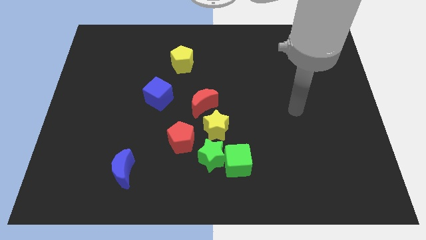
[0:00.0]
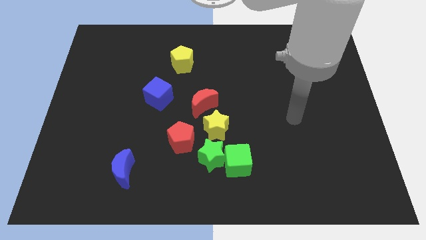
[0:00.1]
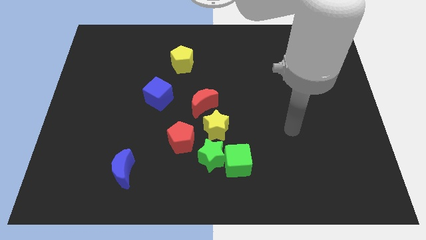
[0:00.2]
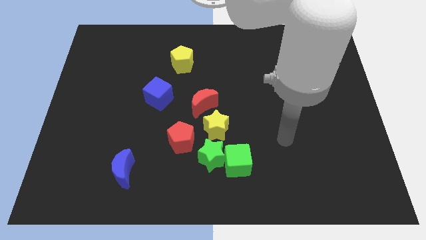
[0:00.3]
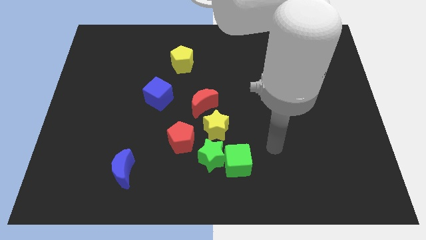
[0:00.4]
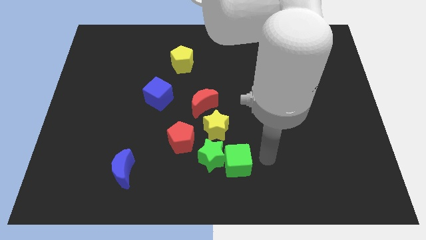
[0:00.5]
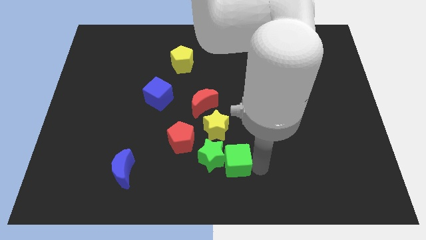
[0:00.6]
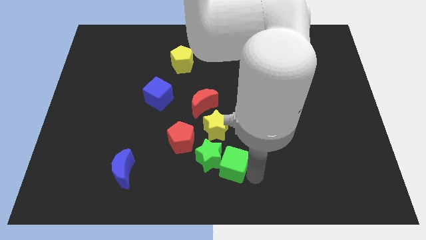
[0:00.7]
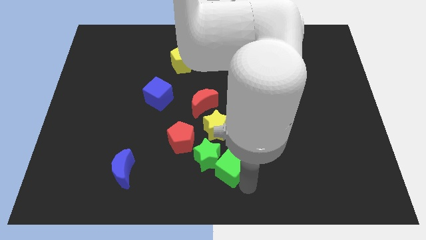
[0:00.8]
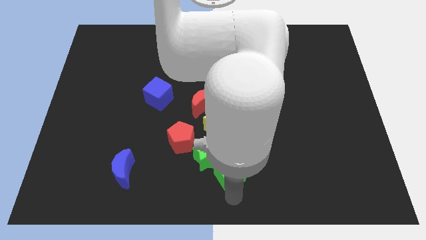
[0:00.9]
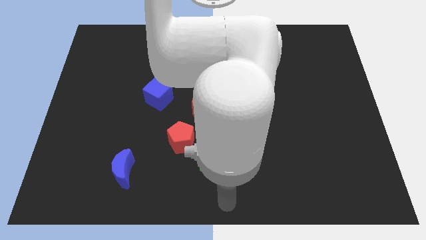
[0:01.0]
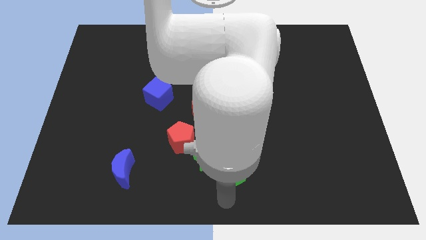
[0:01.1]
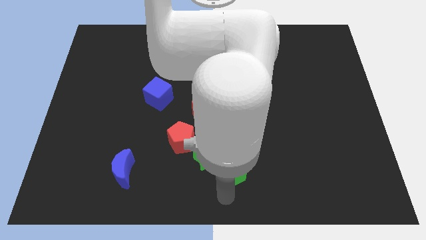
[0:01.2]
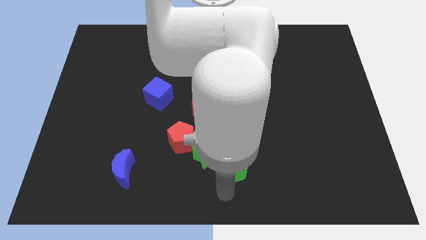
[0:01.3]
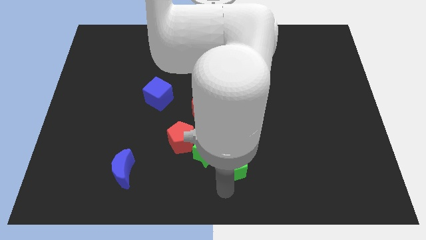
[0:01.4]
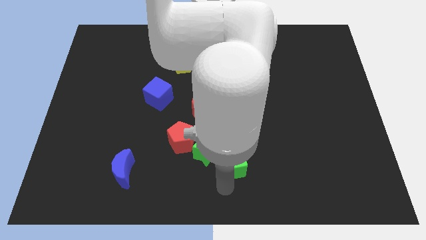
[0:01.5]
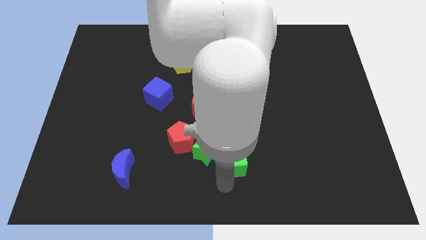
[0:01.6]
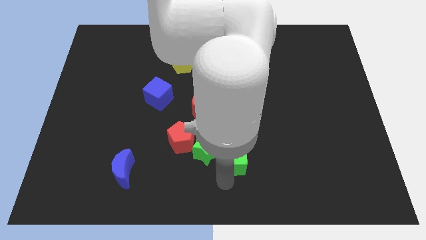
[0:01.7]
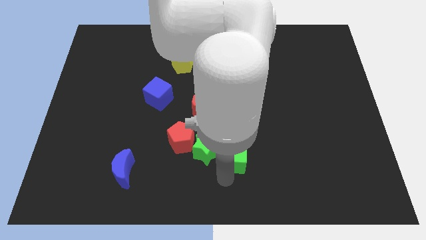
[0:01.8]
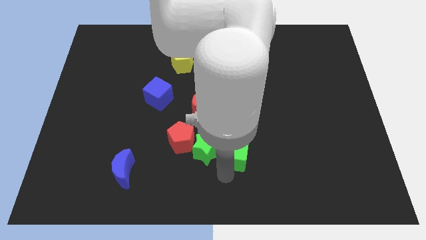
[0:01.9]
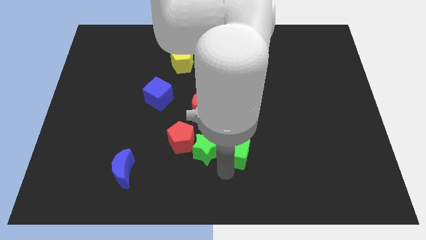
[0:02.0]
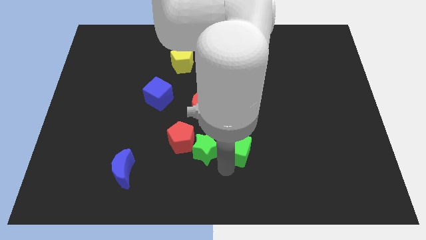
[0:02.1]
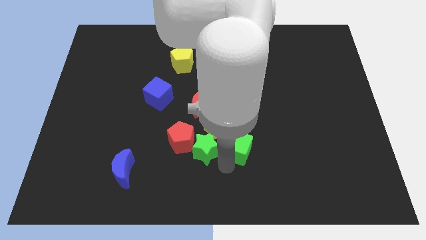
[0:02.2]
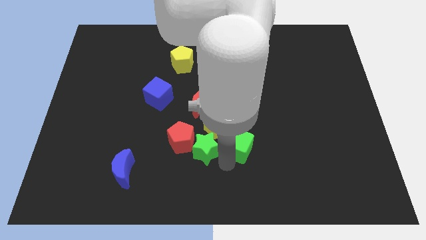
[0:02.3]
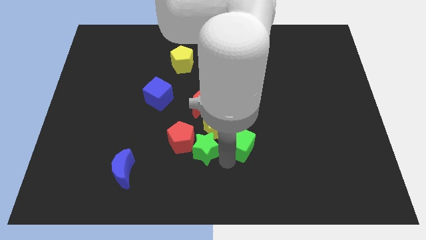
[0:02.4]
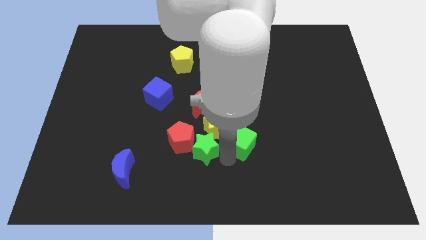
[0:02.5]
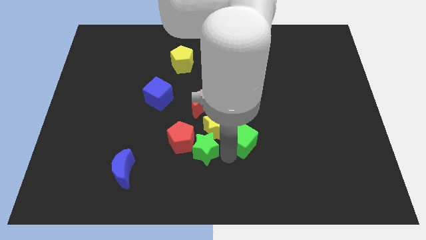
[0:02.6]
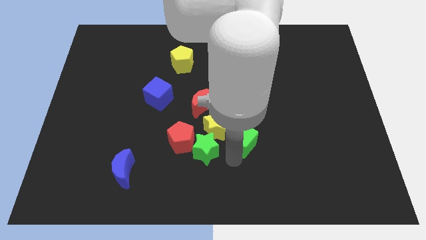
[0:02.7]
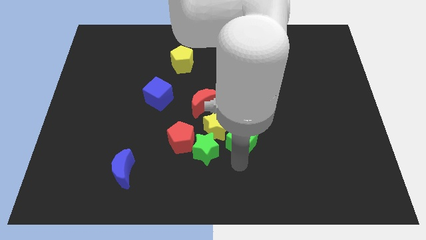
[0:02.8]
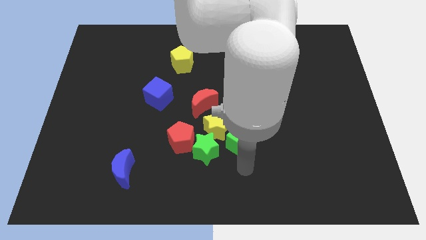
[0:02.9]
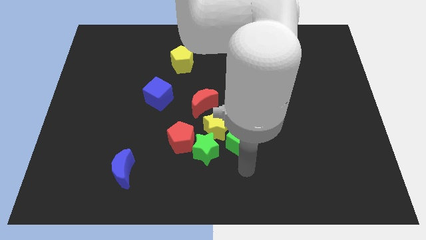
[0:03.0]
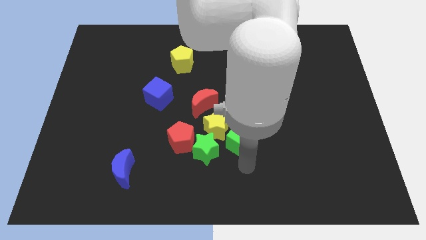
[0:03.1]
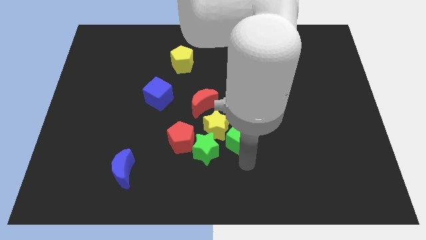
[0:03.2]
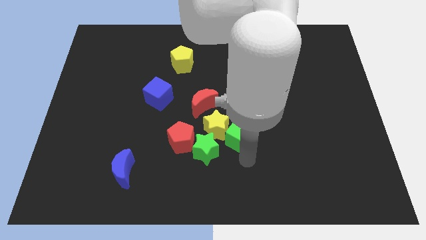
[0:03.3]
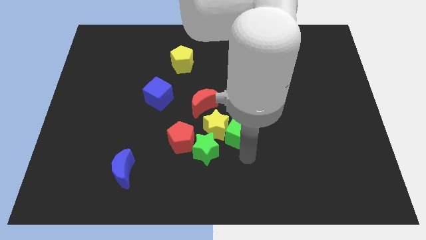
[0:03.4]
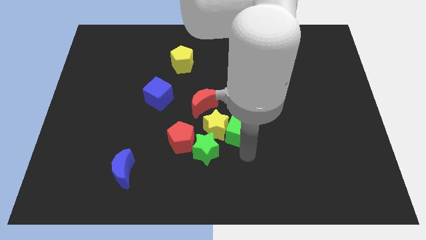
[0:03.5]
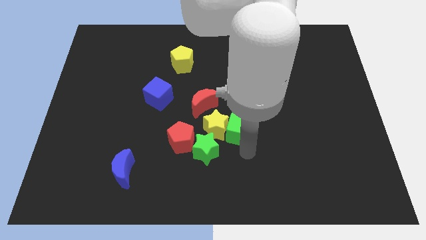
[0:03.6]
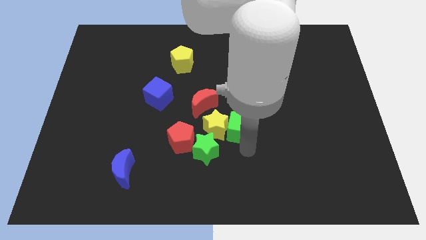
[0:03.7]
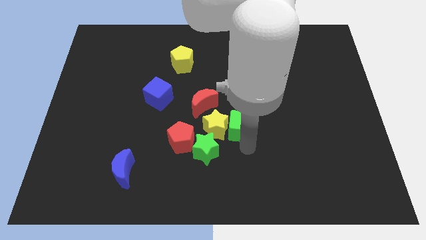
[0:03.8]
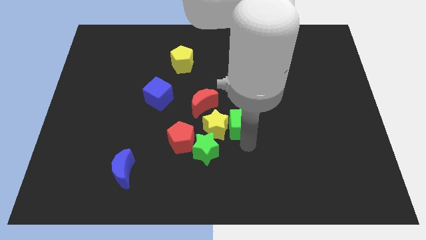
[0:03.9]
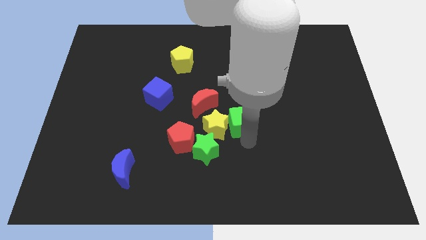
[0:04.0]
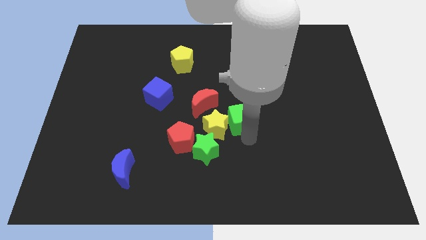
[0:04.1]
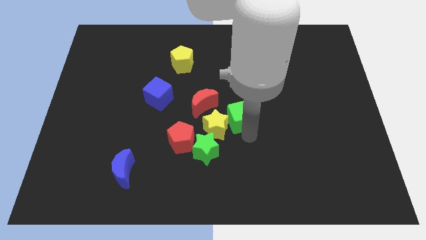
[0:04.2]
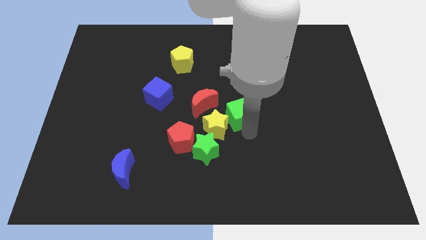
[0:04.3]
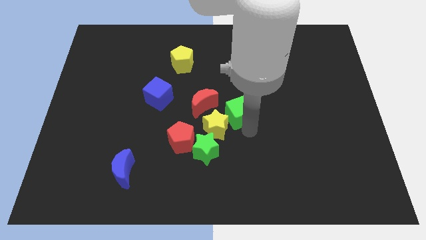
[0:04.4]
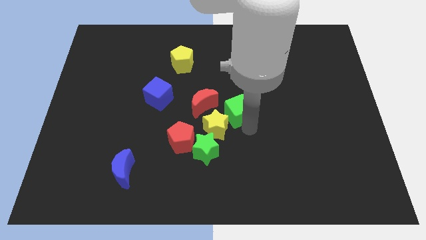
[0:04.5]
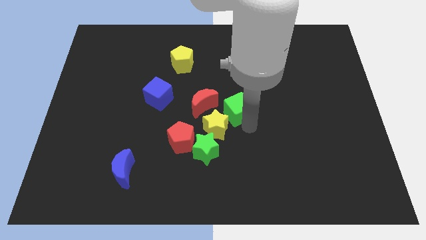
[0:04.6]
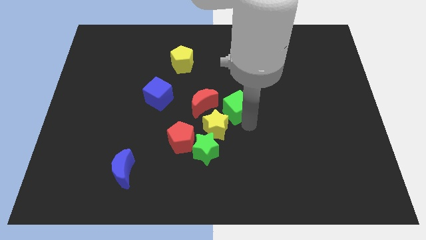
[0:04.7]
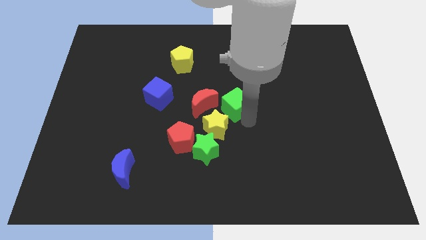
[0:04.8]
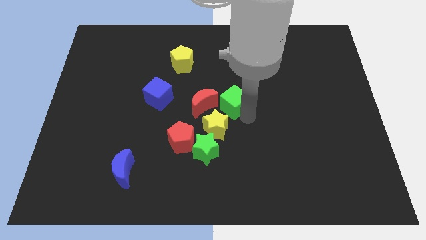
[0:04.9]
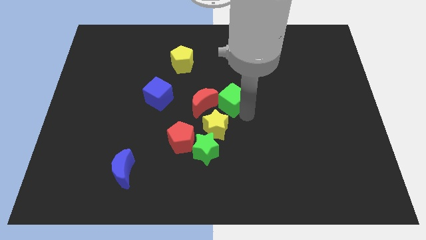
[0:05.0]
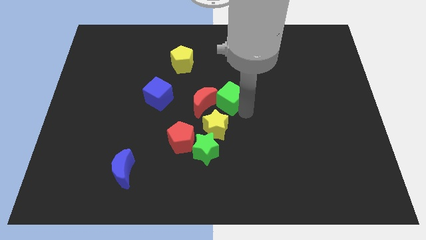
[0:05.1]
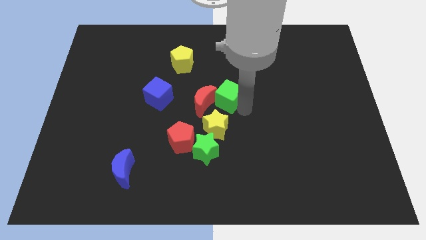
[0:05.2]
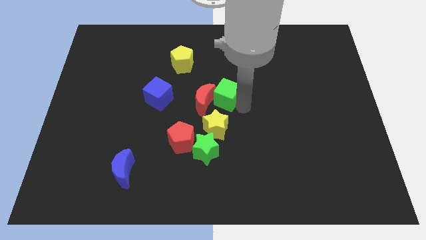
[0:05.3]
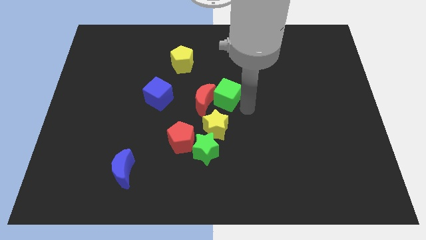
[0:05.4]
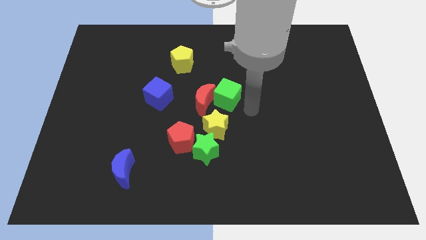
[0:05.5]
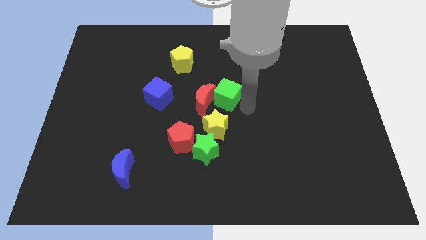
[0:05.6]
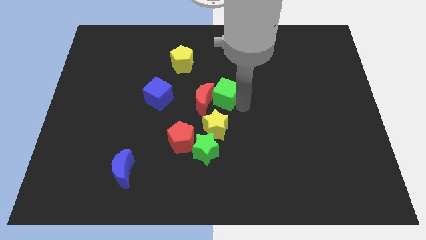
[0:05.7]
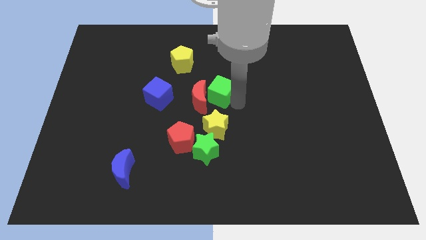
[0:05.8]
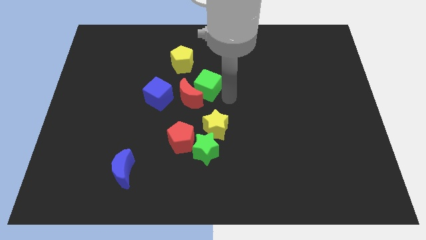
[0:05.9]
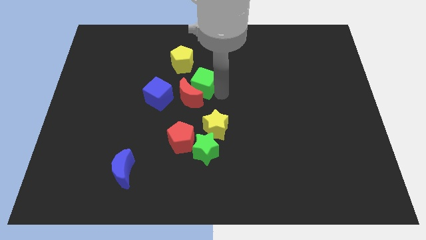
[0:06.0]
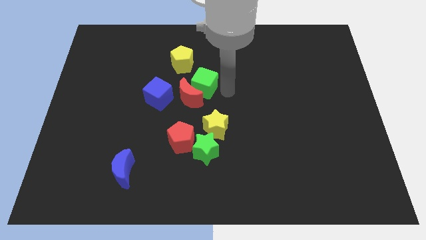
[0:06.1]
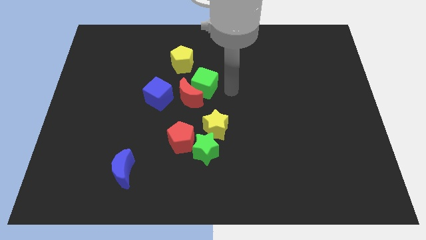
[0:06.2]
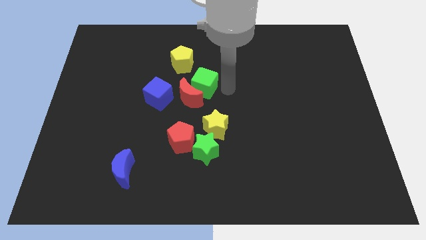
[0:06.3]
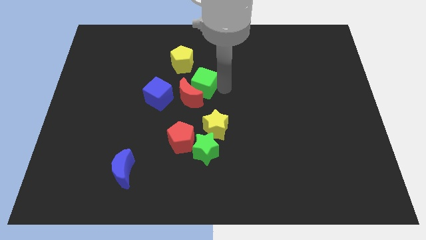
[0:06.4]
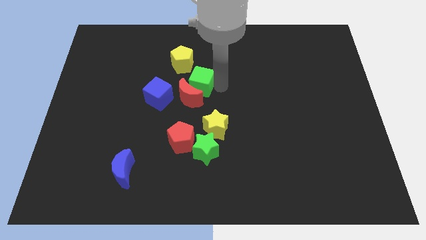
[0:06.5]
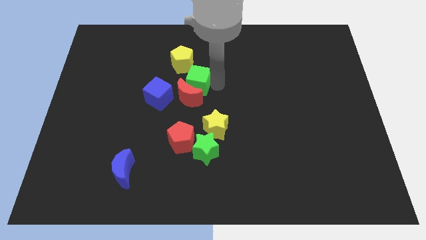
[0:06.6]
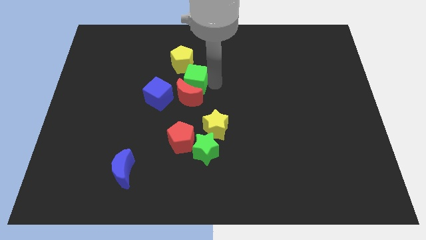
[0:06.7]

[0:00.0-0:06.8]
slide the green cube to the top left of the red moon
